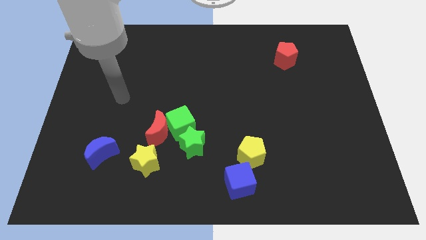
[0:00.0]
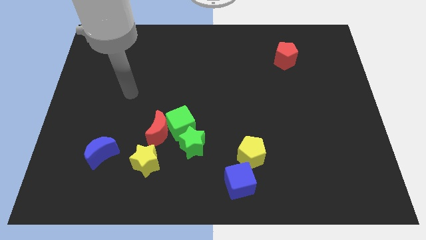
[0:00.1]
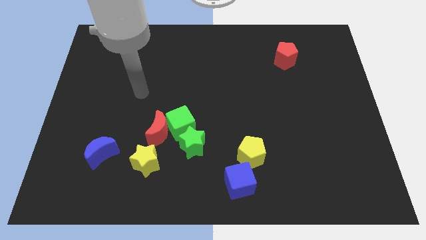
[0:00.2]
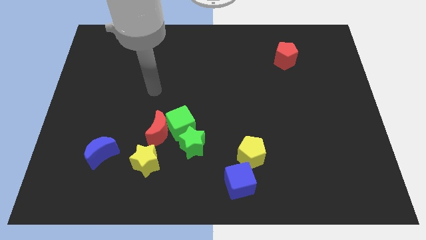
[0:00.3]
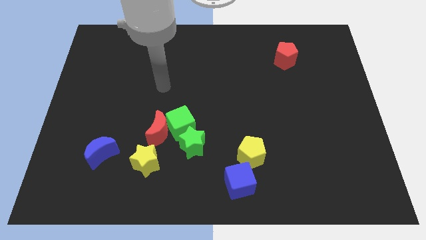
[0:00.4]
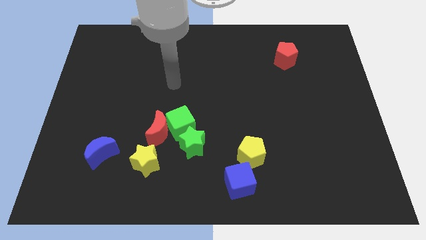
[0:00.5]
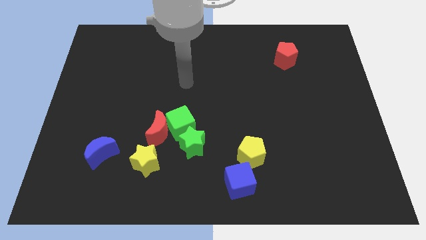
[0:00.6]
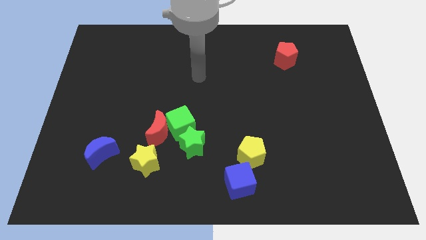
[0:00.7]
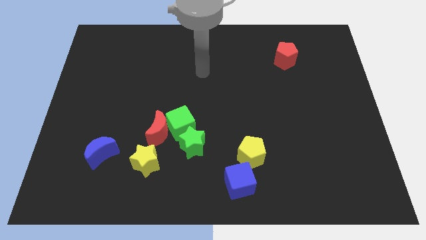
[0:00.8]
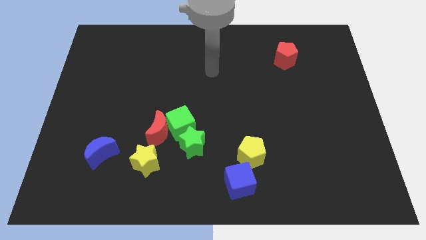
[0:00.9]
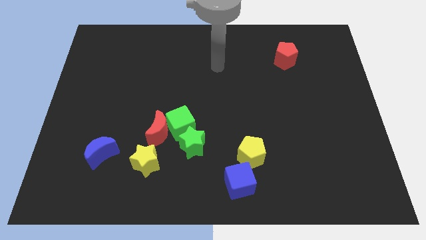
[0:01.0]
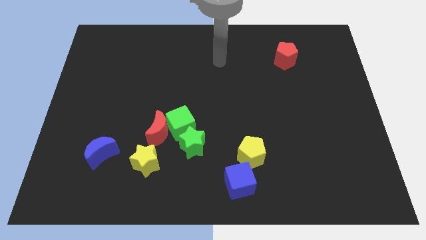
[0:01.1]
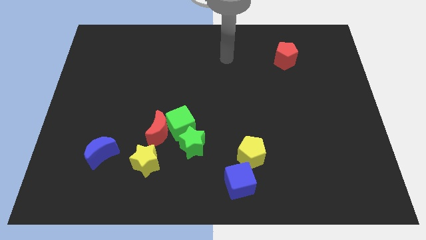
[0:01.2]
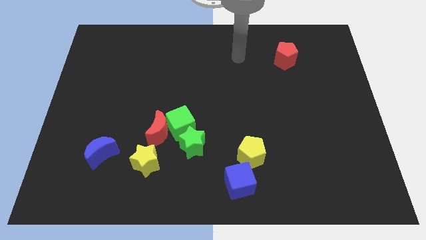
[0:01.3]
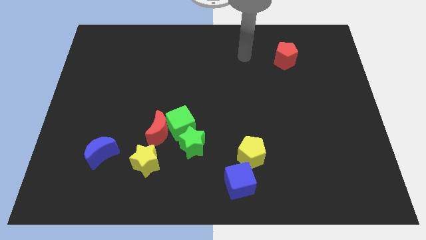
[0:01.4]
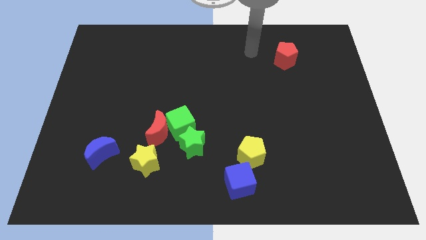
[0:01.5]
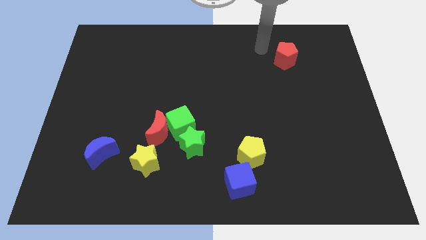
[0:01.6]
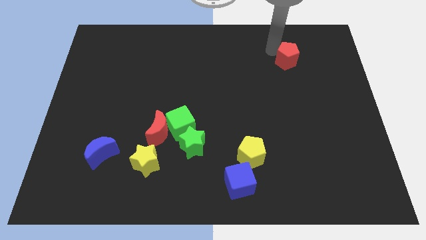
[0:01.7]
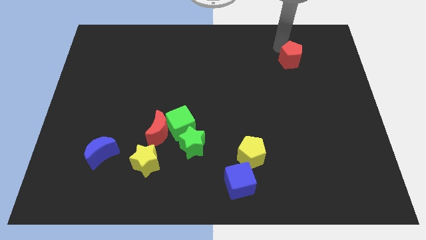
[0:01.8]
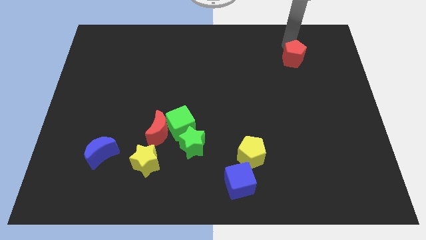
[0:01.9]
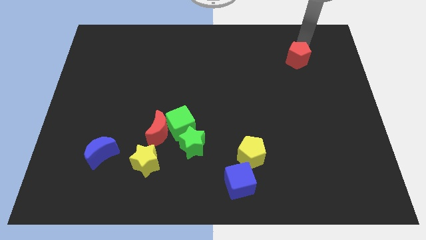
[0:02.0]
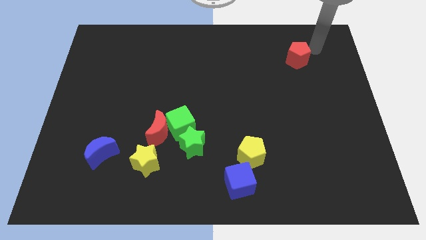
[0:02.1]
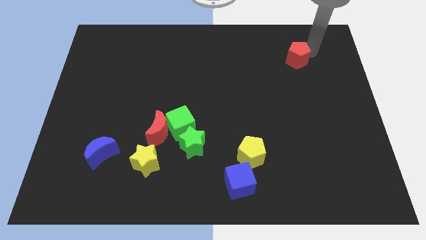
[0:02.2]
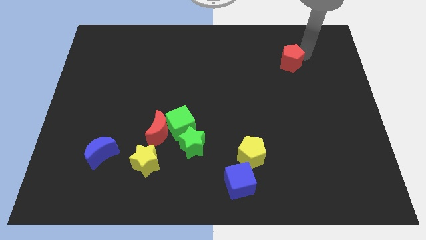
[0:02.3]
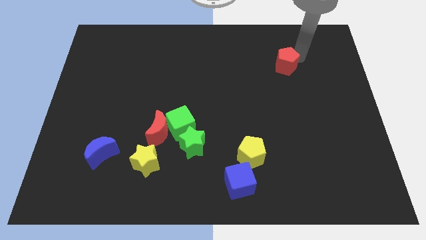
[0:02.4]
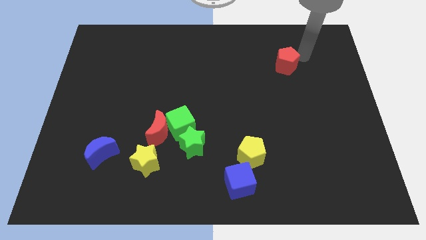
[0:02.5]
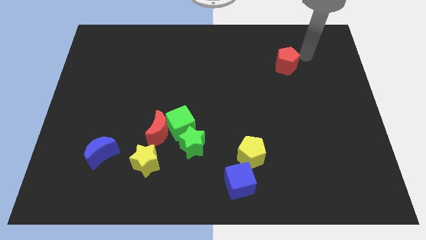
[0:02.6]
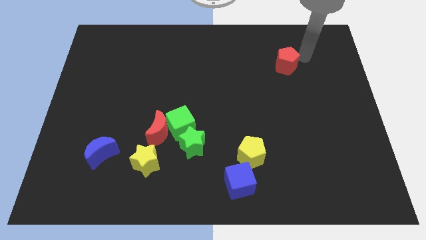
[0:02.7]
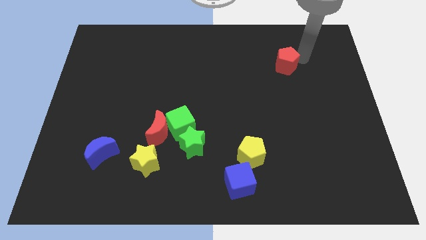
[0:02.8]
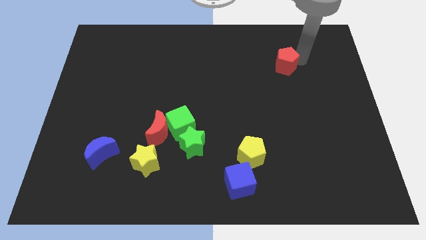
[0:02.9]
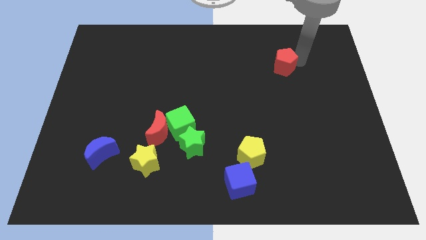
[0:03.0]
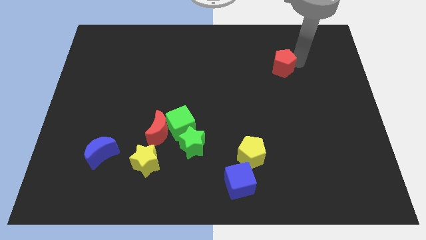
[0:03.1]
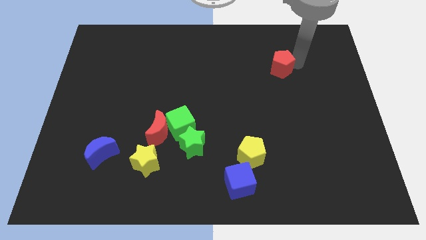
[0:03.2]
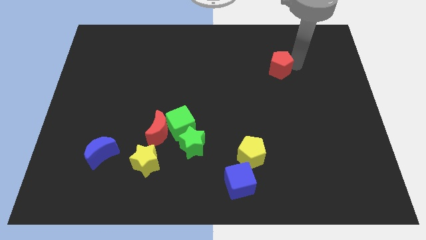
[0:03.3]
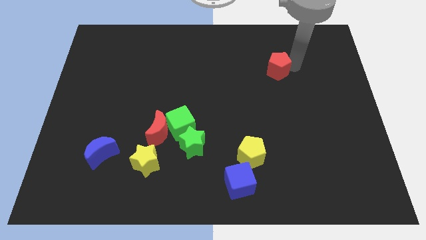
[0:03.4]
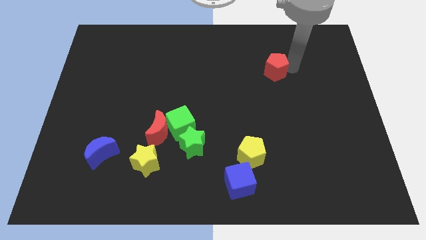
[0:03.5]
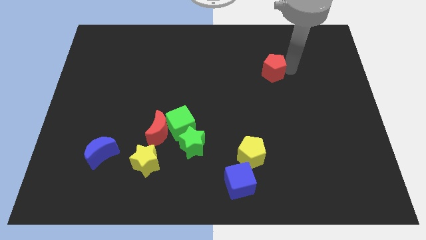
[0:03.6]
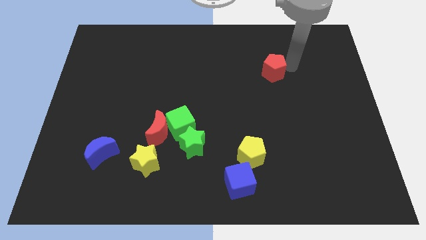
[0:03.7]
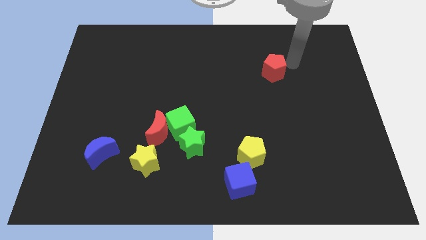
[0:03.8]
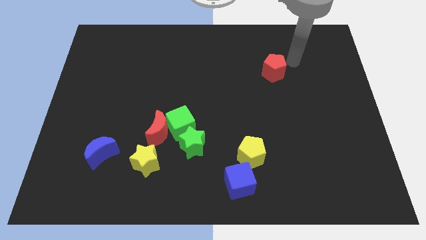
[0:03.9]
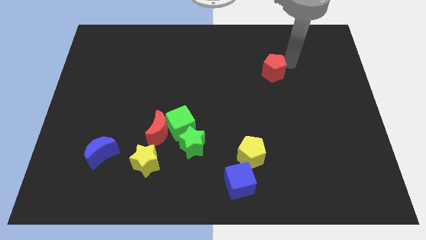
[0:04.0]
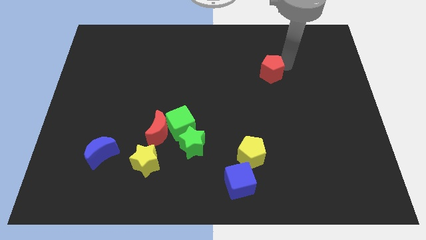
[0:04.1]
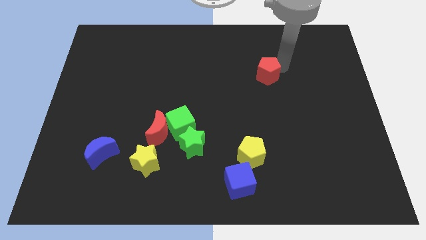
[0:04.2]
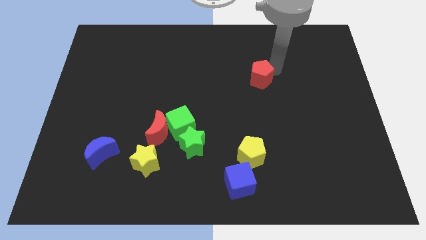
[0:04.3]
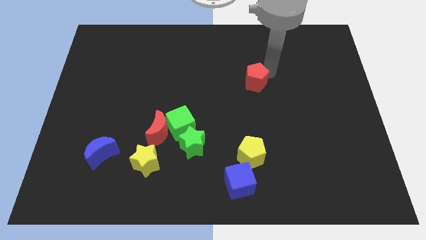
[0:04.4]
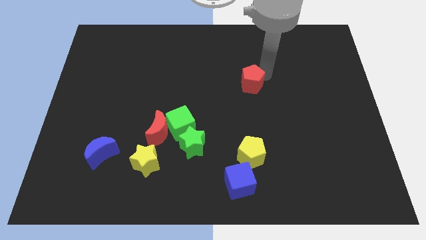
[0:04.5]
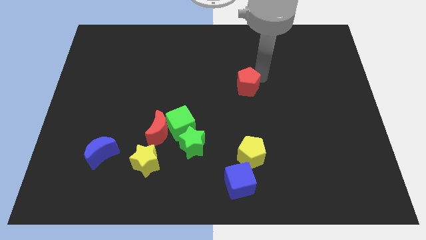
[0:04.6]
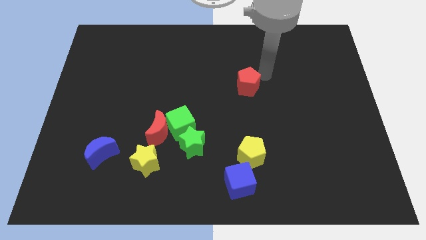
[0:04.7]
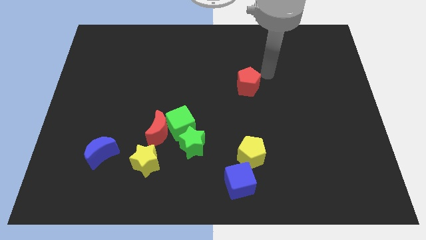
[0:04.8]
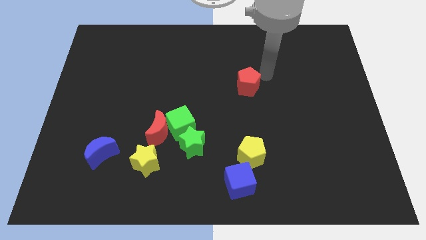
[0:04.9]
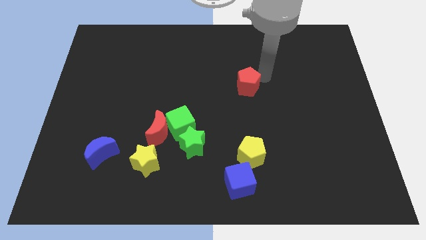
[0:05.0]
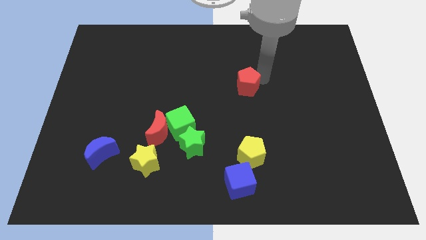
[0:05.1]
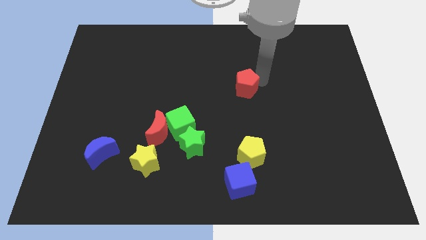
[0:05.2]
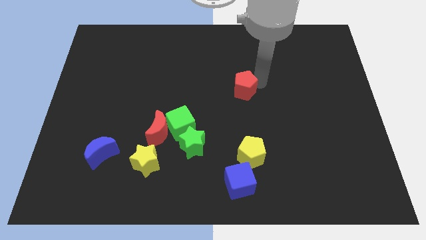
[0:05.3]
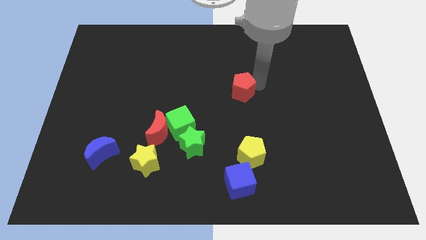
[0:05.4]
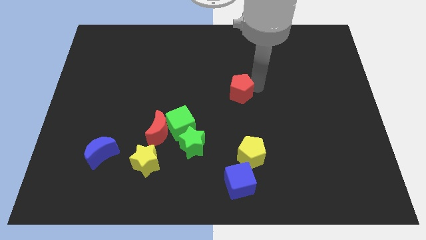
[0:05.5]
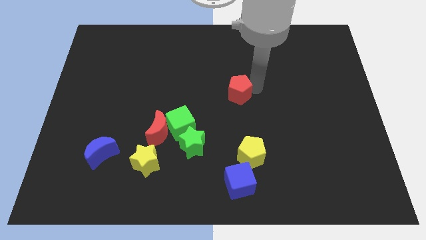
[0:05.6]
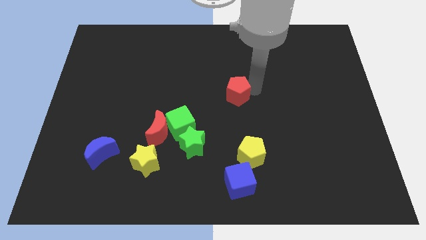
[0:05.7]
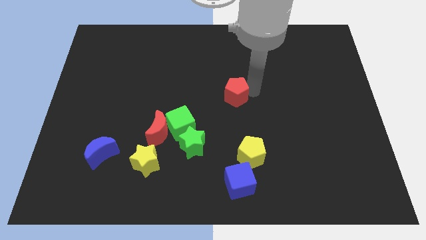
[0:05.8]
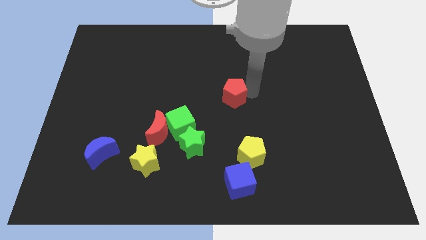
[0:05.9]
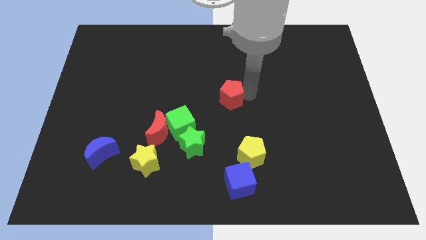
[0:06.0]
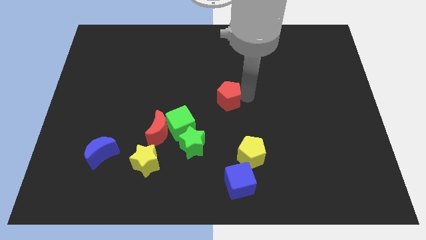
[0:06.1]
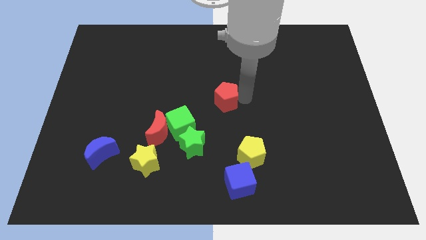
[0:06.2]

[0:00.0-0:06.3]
push the red pentagon to the top right of the green cube

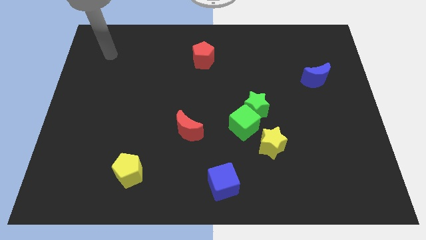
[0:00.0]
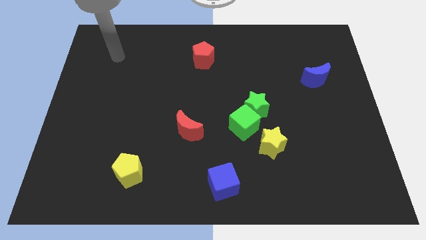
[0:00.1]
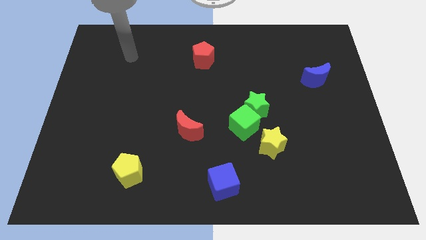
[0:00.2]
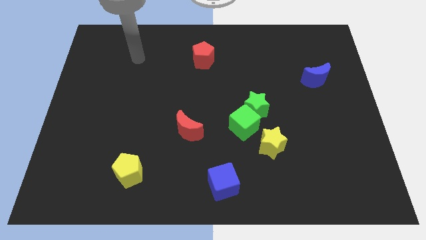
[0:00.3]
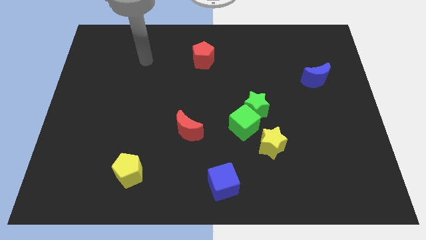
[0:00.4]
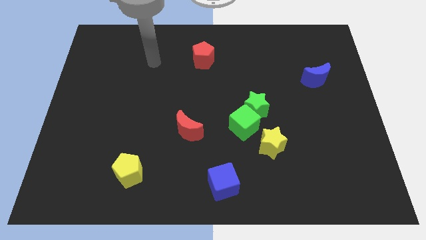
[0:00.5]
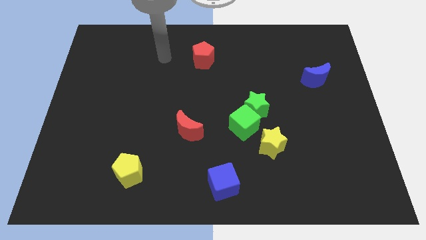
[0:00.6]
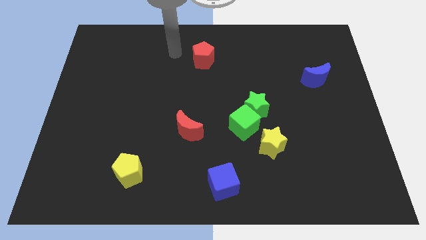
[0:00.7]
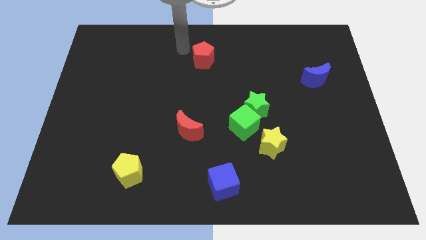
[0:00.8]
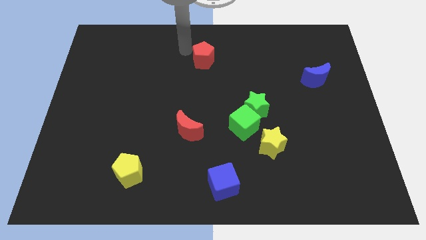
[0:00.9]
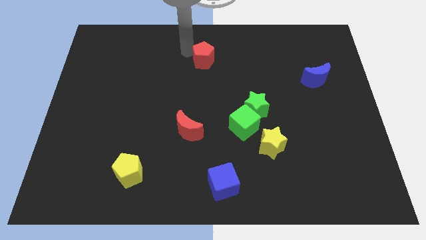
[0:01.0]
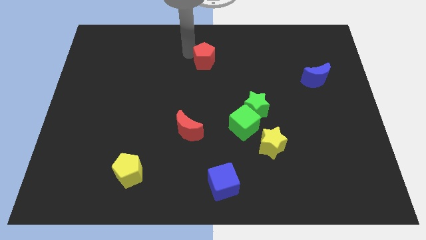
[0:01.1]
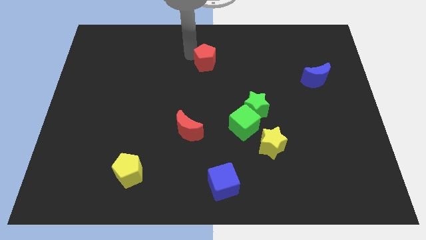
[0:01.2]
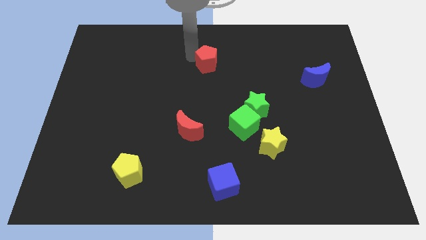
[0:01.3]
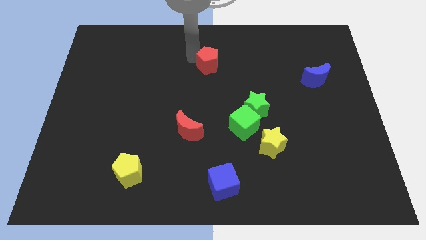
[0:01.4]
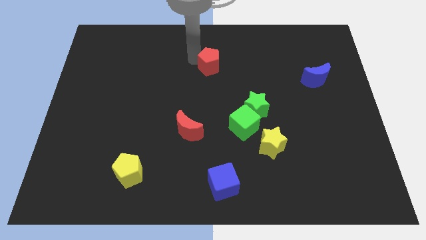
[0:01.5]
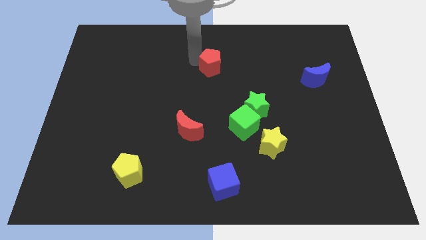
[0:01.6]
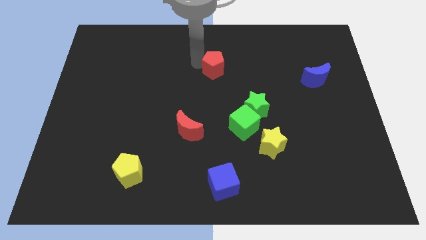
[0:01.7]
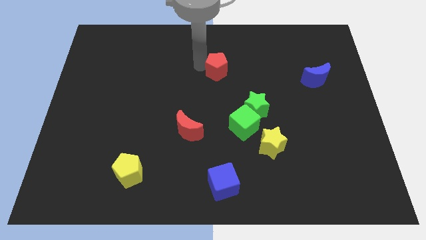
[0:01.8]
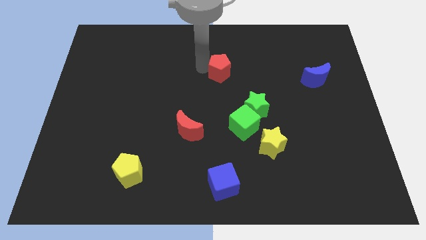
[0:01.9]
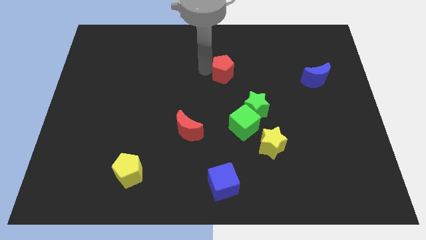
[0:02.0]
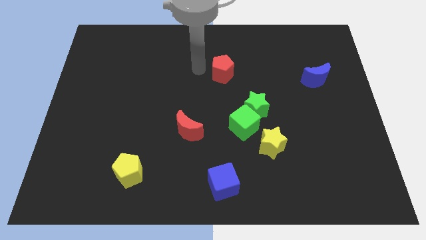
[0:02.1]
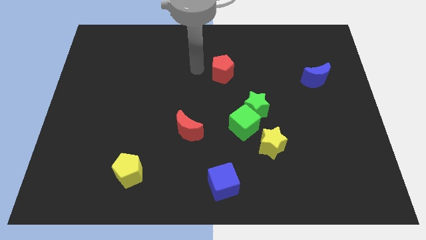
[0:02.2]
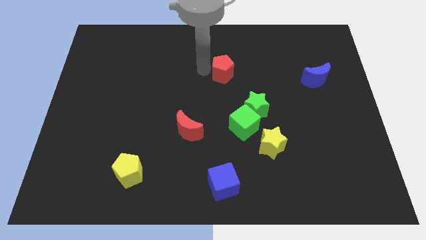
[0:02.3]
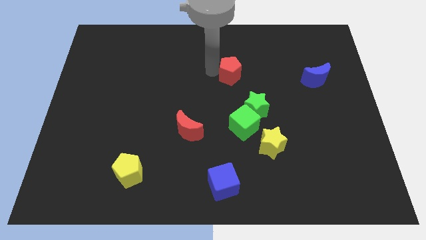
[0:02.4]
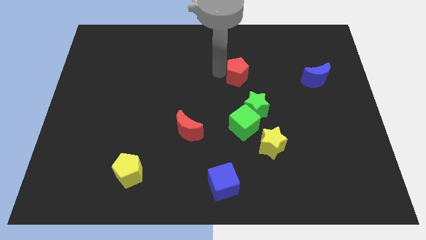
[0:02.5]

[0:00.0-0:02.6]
move the red pentagon to the top of the green star
